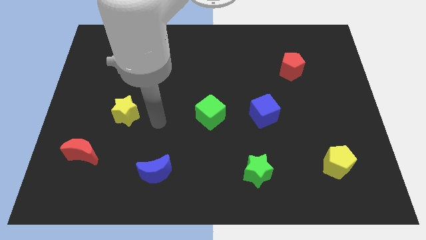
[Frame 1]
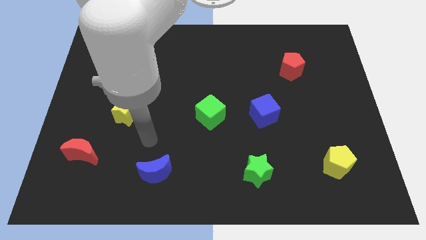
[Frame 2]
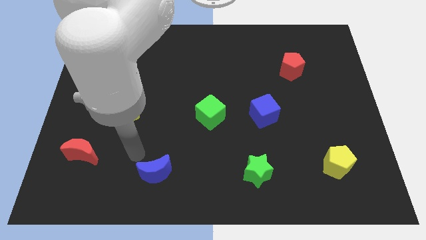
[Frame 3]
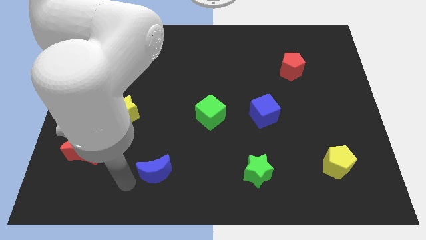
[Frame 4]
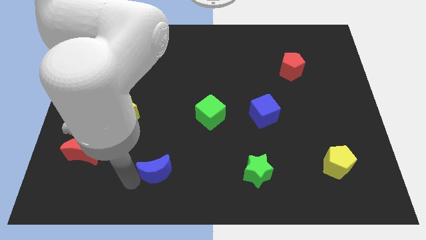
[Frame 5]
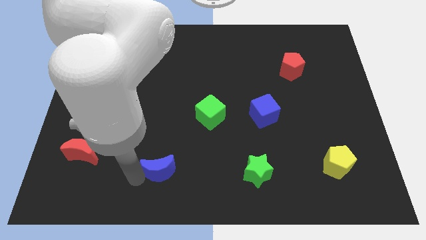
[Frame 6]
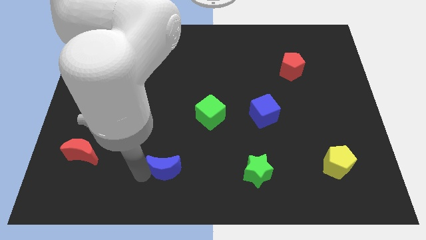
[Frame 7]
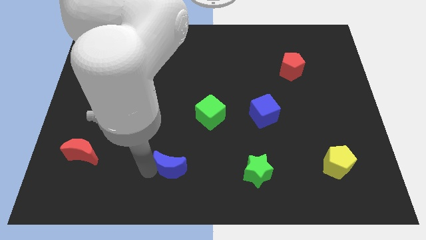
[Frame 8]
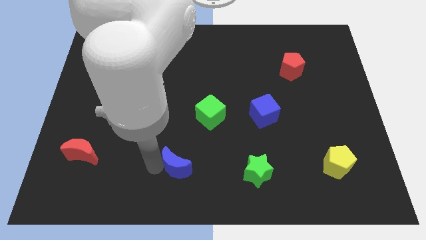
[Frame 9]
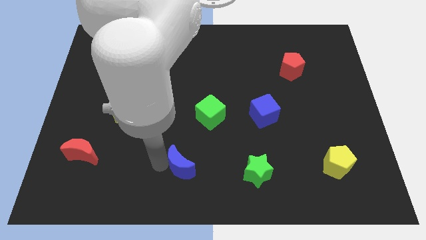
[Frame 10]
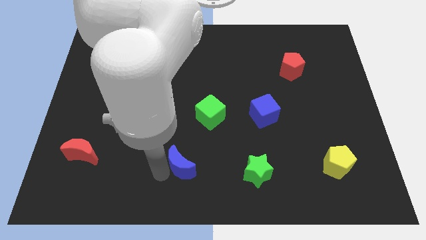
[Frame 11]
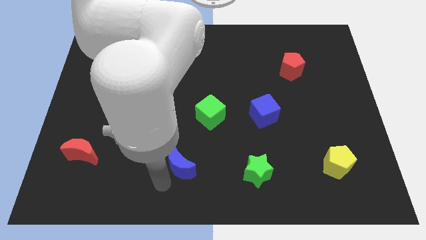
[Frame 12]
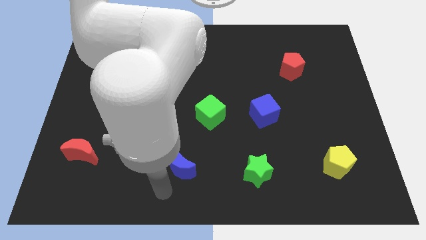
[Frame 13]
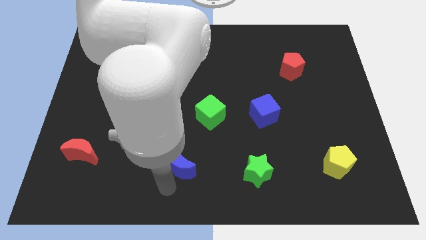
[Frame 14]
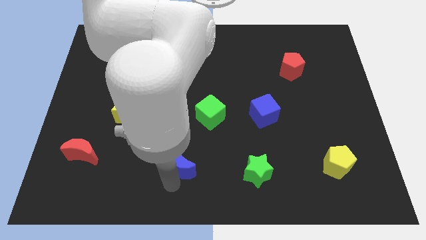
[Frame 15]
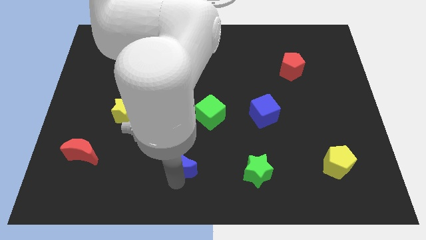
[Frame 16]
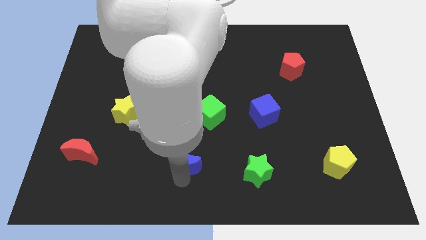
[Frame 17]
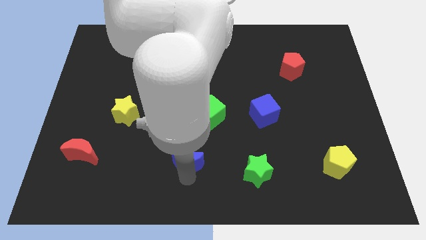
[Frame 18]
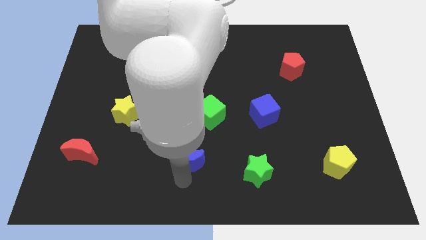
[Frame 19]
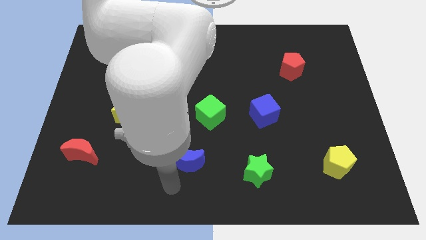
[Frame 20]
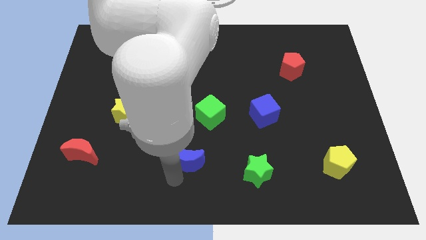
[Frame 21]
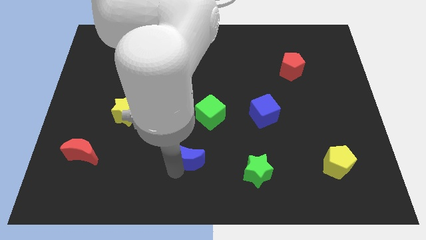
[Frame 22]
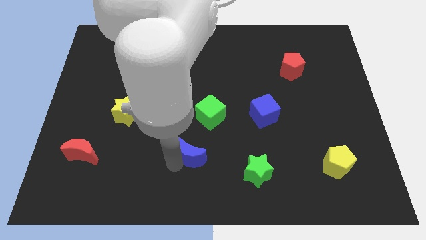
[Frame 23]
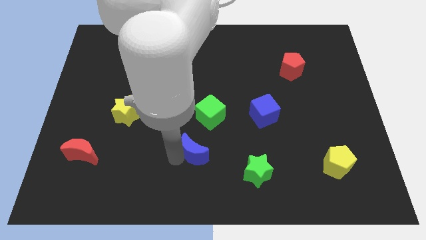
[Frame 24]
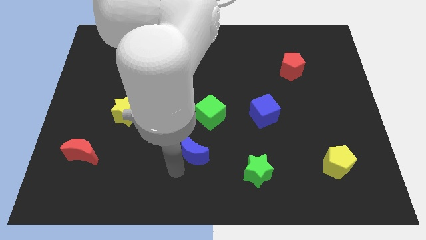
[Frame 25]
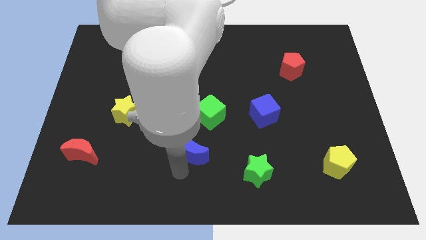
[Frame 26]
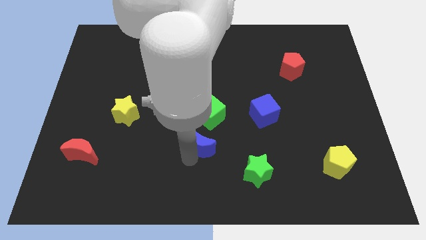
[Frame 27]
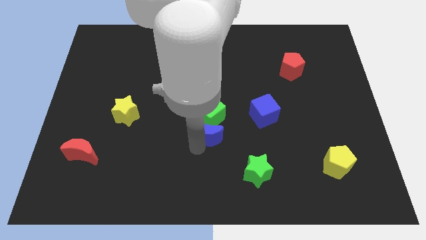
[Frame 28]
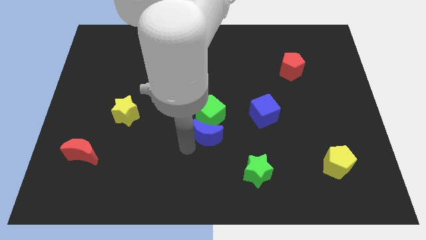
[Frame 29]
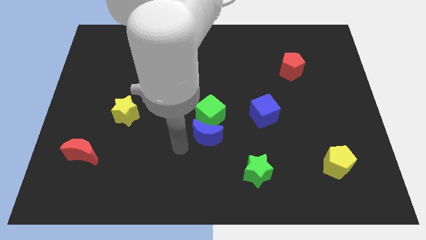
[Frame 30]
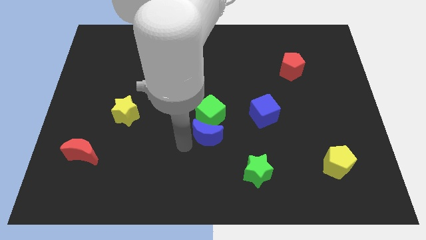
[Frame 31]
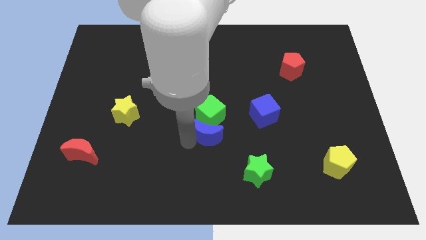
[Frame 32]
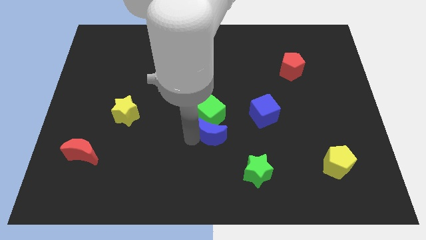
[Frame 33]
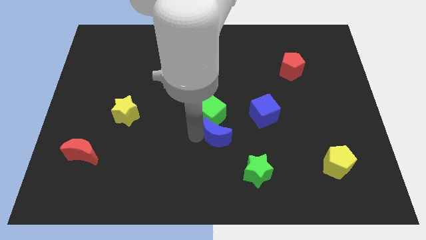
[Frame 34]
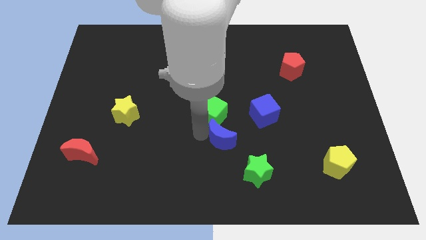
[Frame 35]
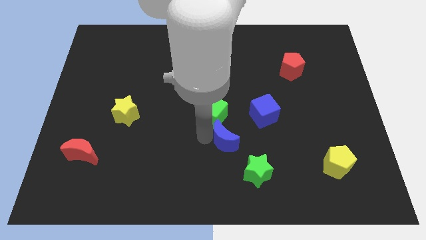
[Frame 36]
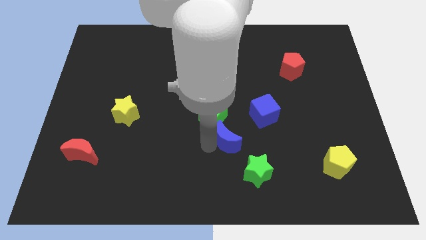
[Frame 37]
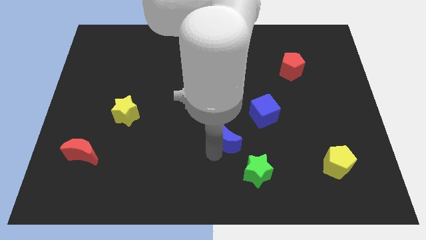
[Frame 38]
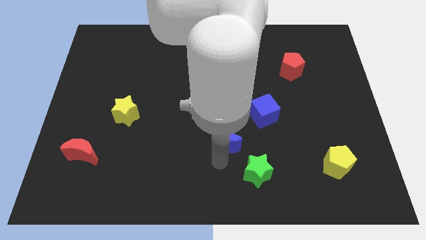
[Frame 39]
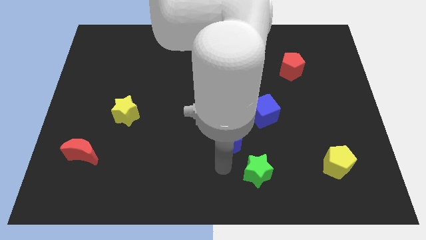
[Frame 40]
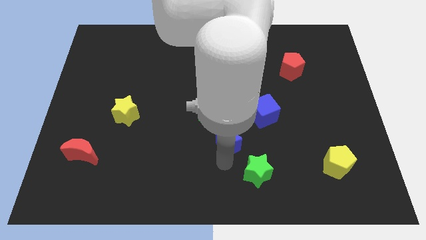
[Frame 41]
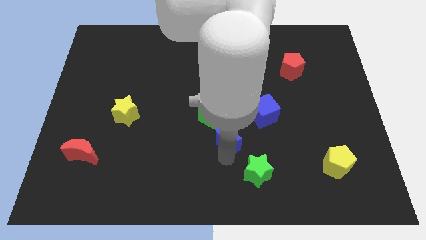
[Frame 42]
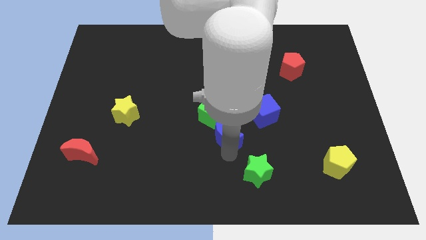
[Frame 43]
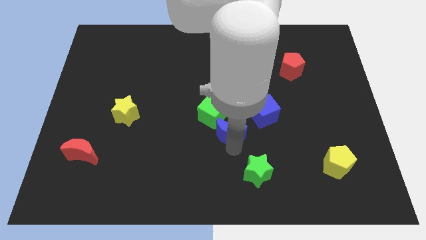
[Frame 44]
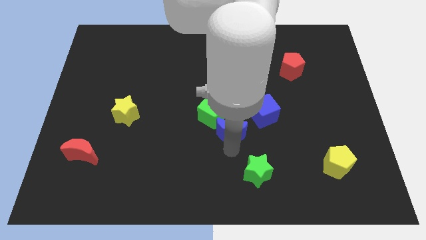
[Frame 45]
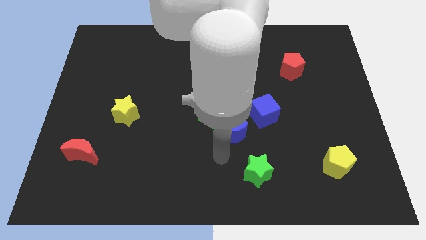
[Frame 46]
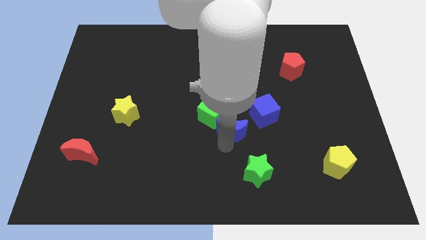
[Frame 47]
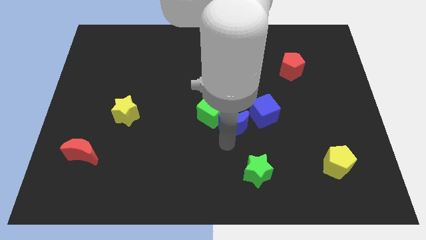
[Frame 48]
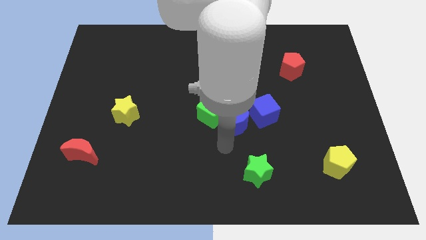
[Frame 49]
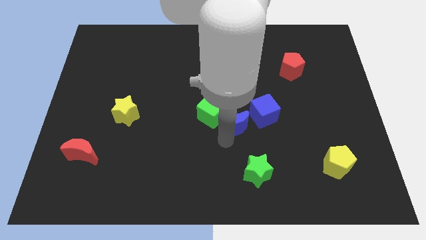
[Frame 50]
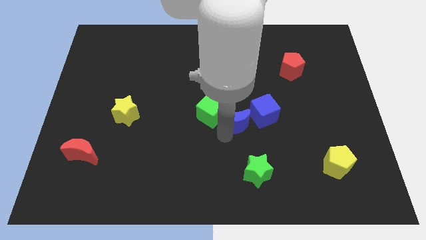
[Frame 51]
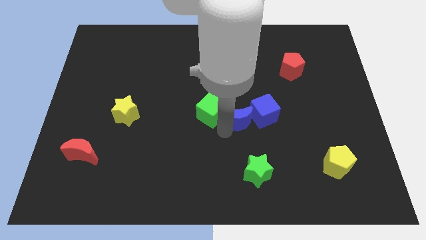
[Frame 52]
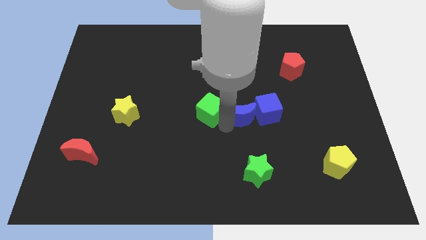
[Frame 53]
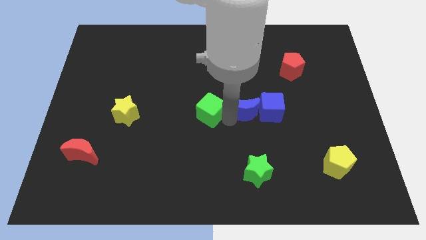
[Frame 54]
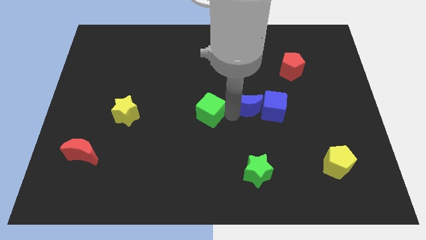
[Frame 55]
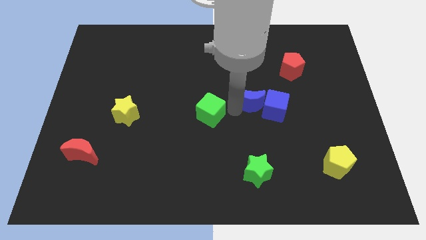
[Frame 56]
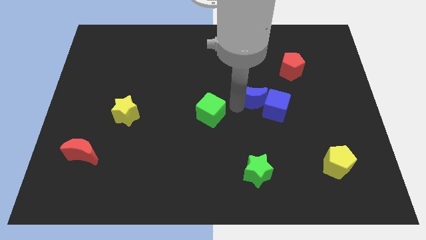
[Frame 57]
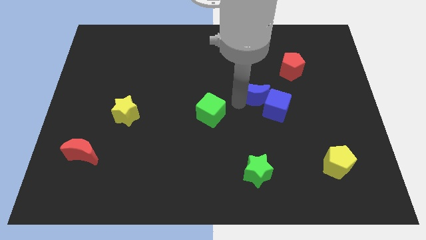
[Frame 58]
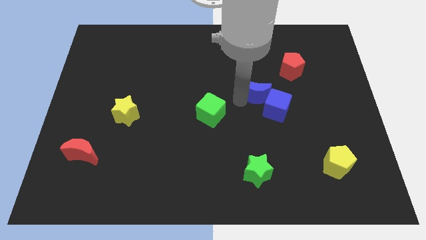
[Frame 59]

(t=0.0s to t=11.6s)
put the blue moon to the bottom left side of the red pentagon

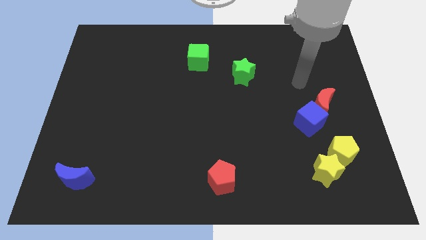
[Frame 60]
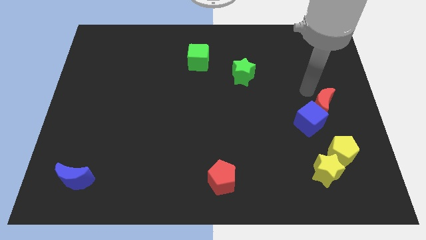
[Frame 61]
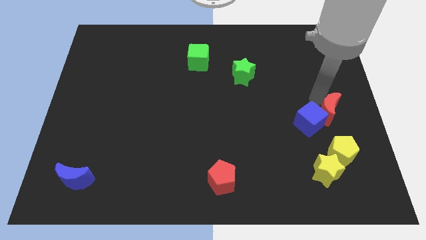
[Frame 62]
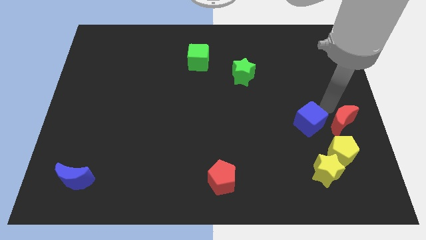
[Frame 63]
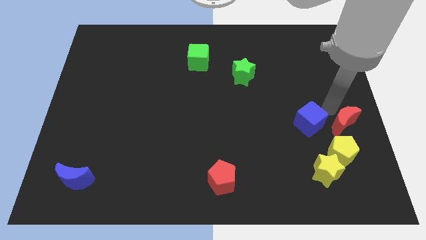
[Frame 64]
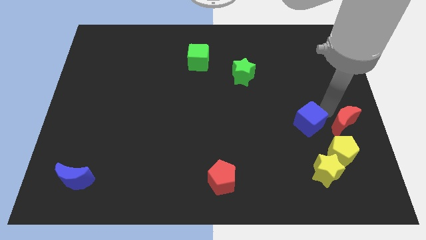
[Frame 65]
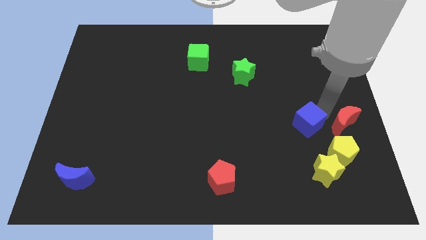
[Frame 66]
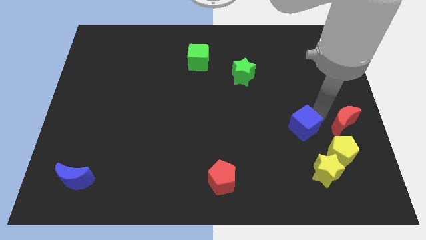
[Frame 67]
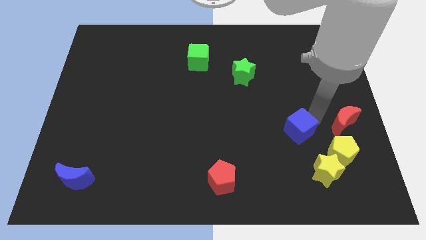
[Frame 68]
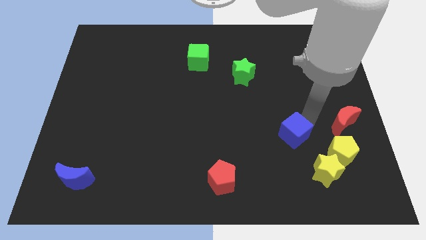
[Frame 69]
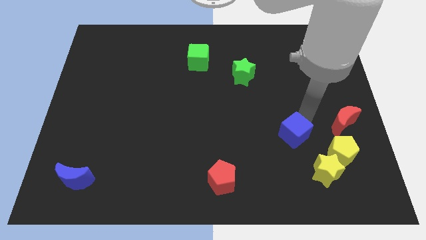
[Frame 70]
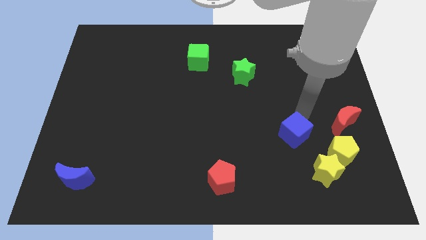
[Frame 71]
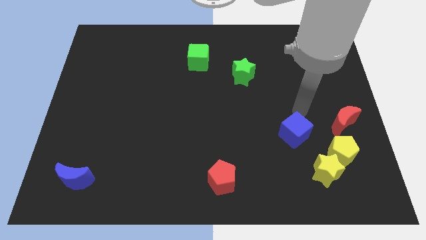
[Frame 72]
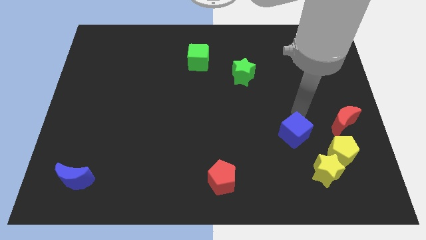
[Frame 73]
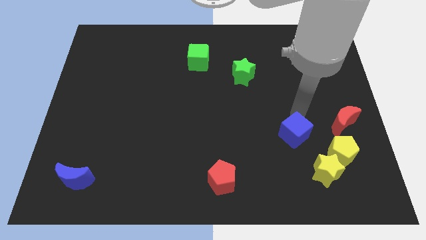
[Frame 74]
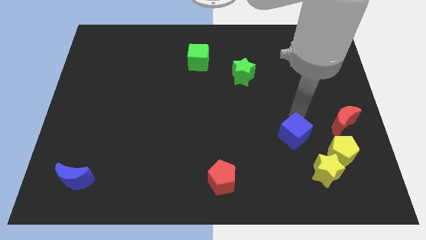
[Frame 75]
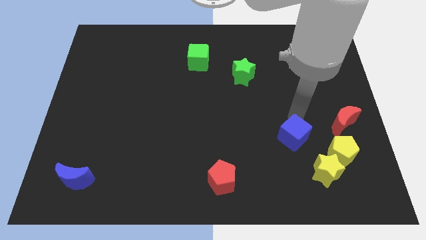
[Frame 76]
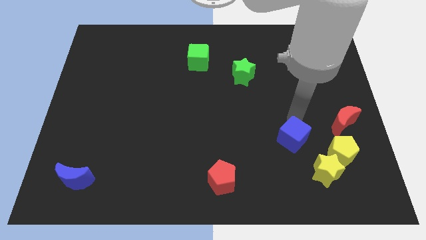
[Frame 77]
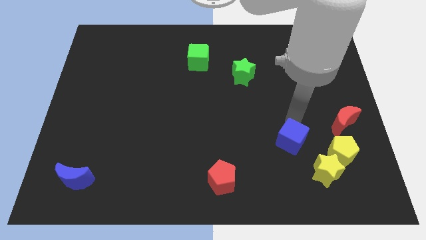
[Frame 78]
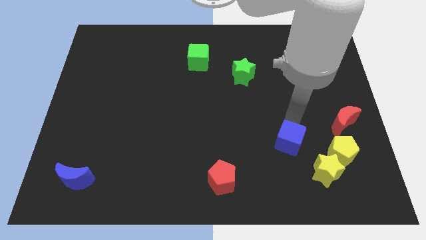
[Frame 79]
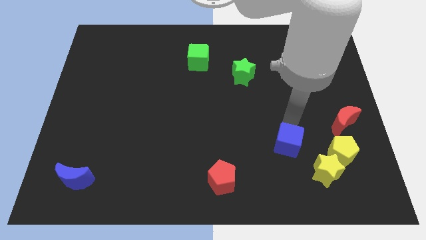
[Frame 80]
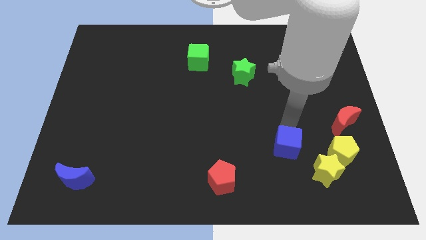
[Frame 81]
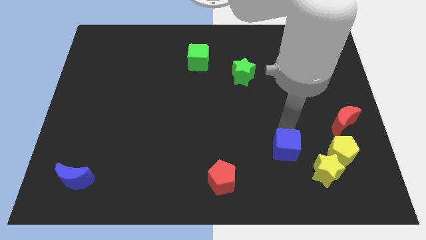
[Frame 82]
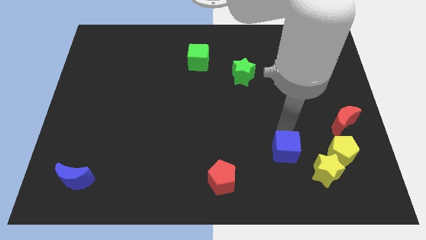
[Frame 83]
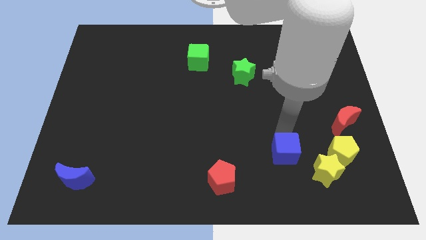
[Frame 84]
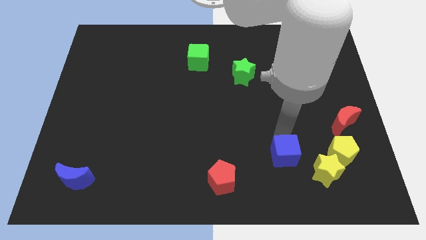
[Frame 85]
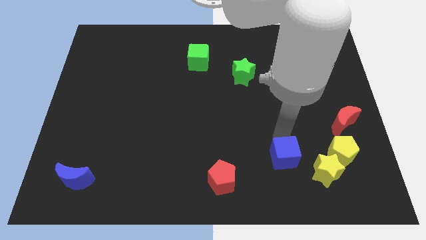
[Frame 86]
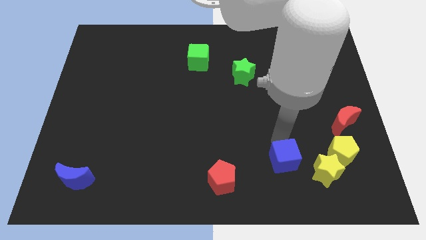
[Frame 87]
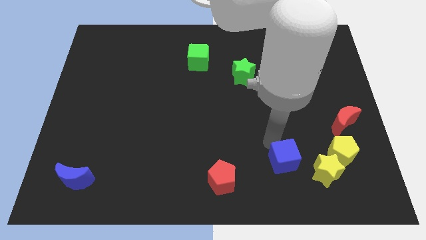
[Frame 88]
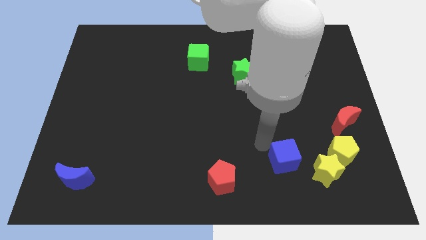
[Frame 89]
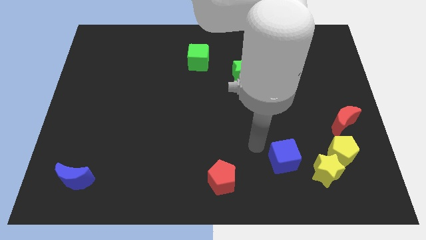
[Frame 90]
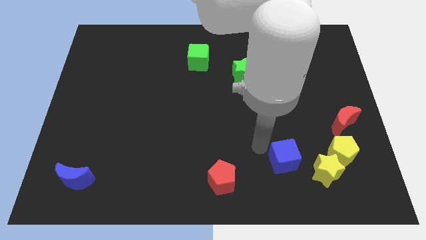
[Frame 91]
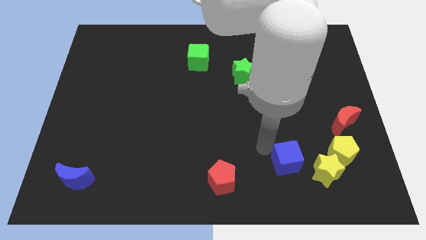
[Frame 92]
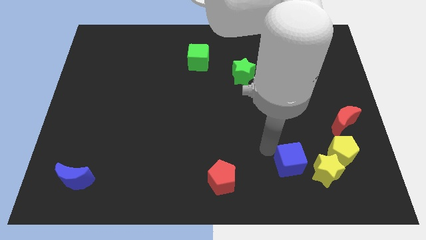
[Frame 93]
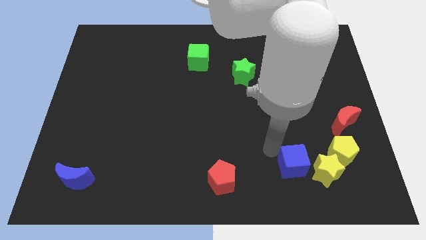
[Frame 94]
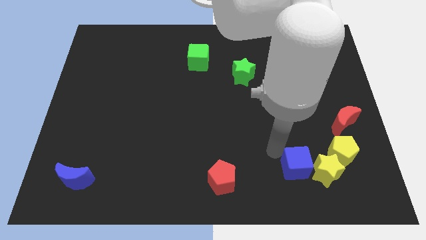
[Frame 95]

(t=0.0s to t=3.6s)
push the blue cube to the bottom left side of the yellow pentagon
